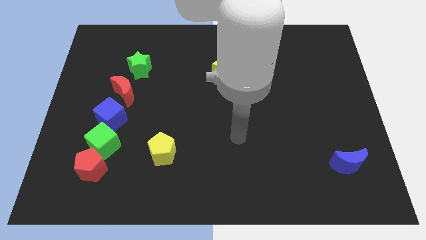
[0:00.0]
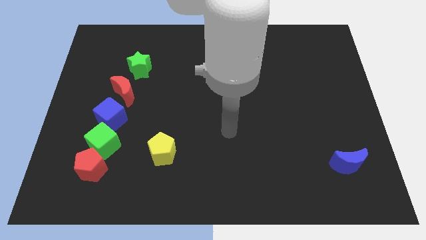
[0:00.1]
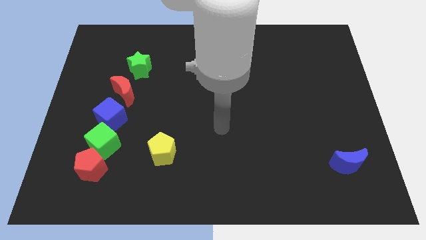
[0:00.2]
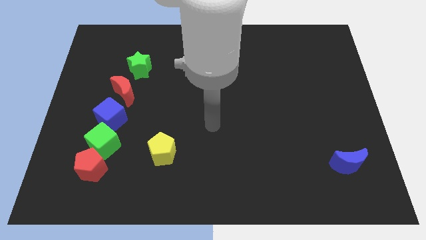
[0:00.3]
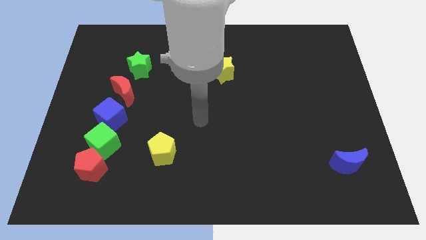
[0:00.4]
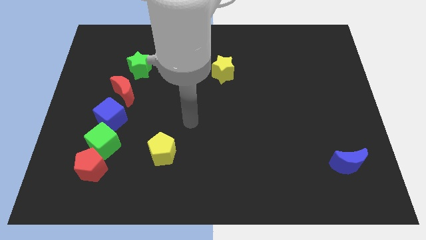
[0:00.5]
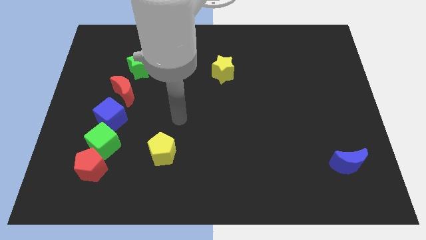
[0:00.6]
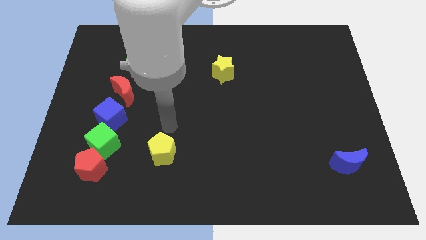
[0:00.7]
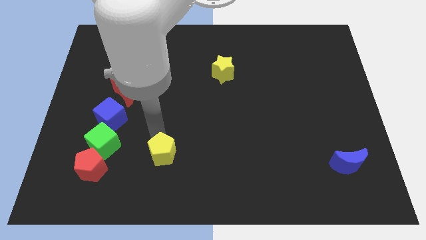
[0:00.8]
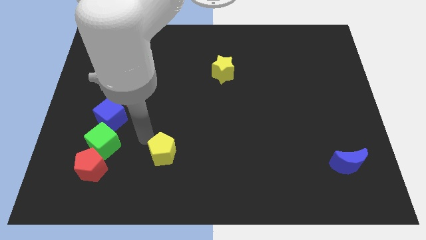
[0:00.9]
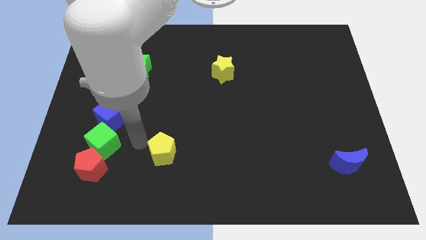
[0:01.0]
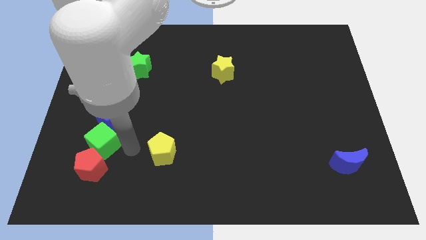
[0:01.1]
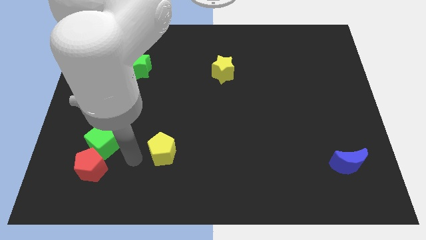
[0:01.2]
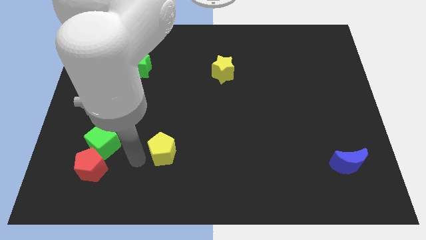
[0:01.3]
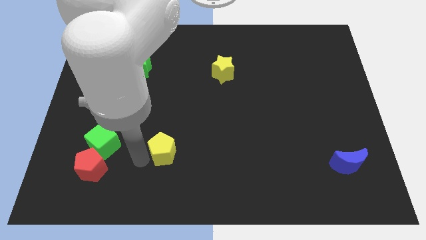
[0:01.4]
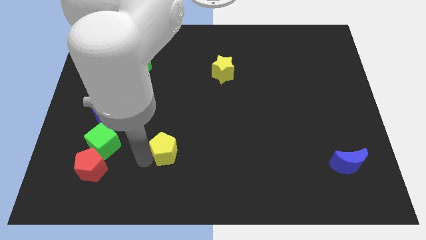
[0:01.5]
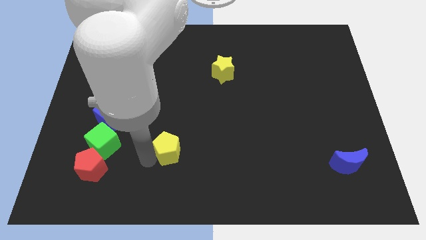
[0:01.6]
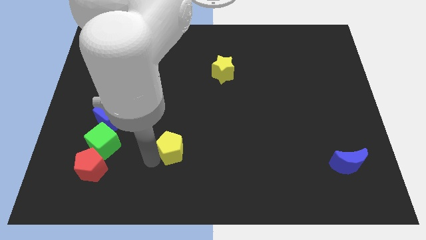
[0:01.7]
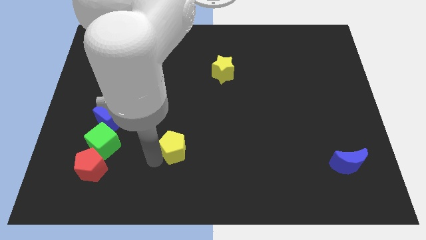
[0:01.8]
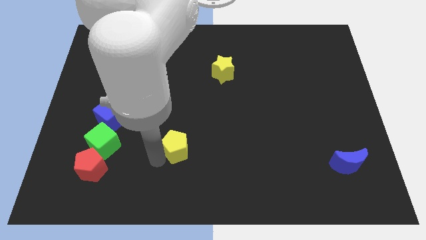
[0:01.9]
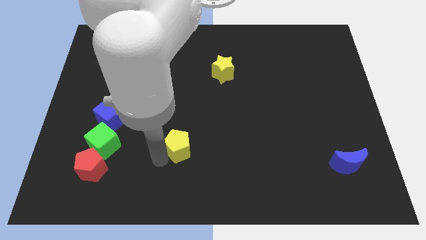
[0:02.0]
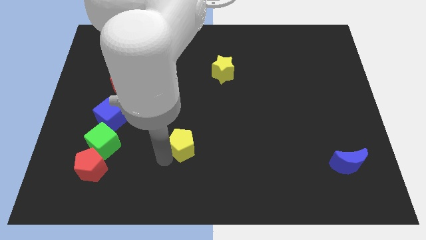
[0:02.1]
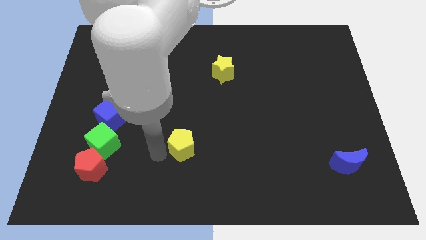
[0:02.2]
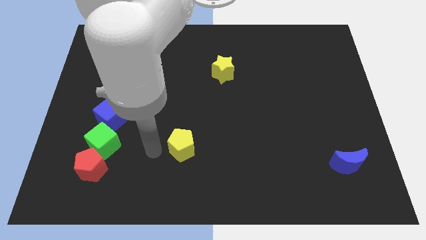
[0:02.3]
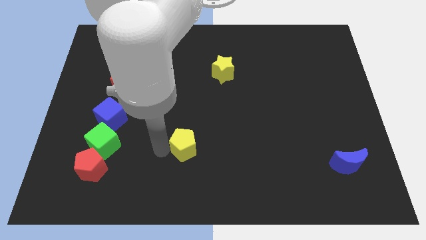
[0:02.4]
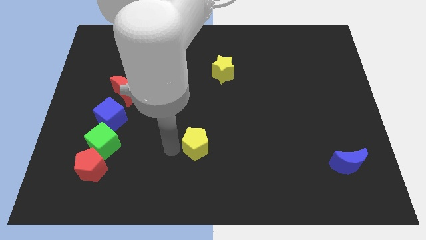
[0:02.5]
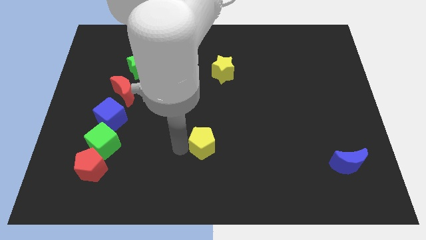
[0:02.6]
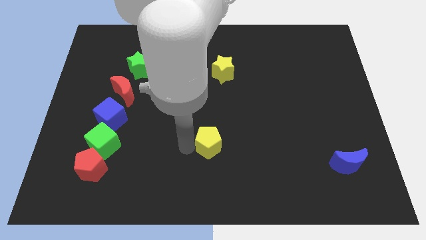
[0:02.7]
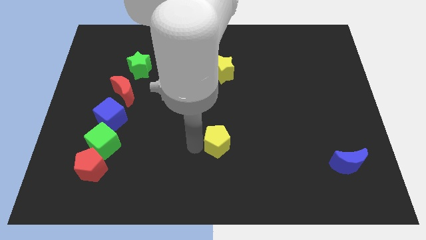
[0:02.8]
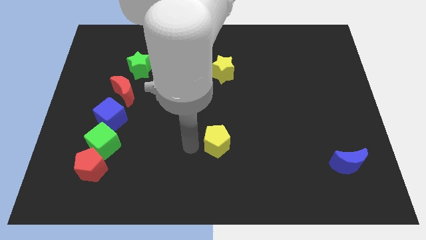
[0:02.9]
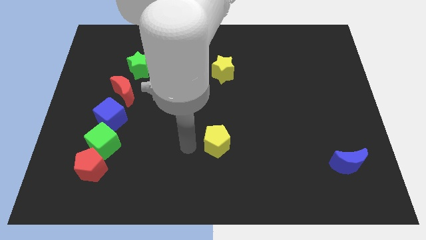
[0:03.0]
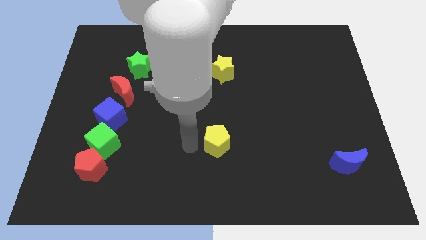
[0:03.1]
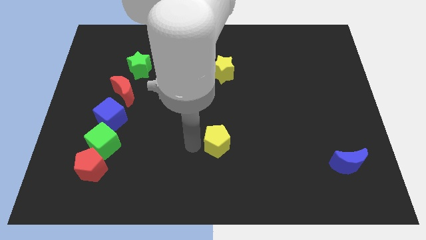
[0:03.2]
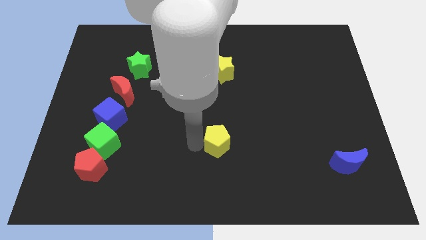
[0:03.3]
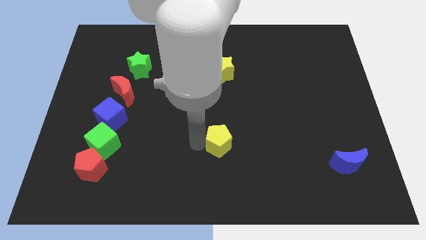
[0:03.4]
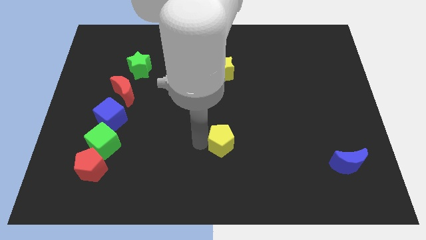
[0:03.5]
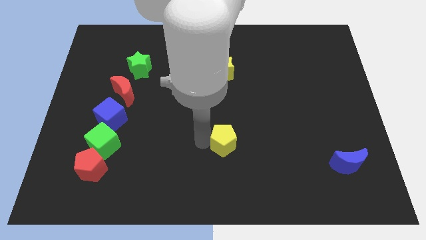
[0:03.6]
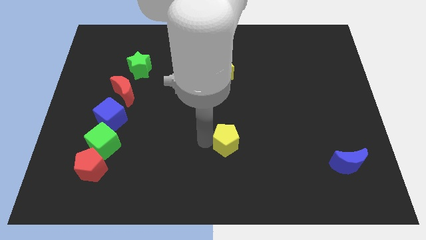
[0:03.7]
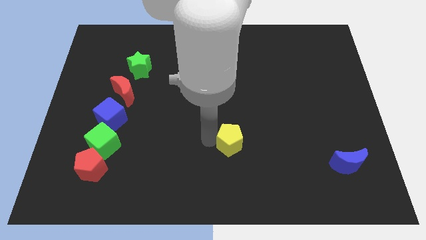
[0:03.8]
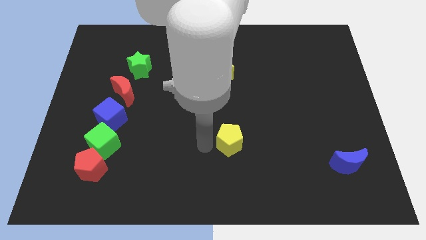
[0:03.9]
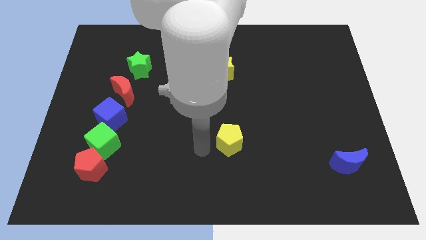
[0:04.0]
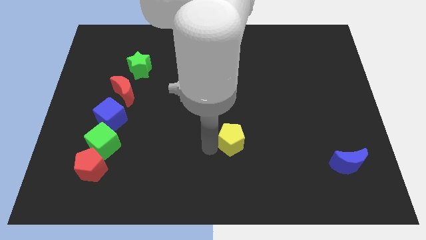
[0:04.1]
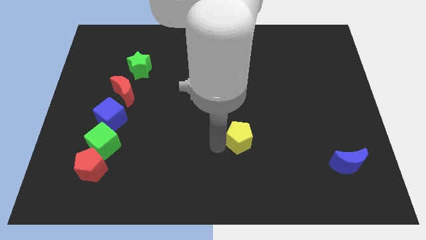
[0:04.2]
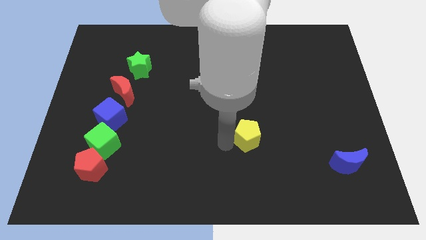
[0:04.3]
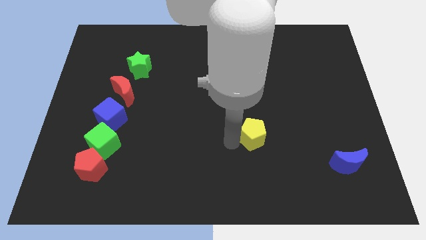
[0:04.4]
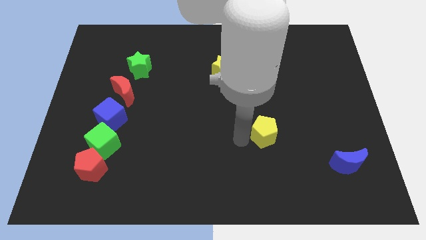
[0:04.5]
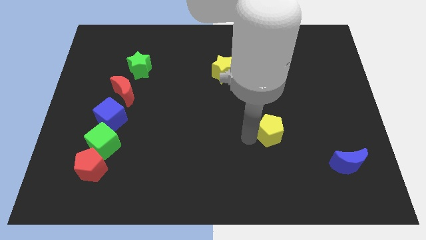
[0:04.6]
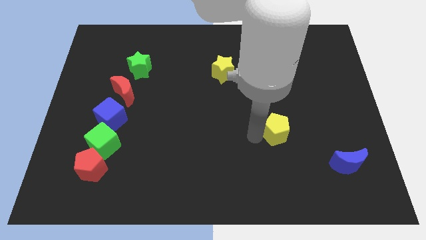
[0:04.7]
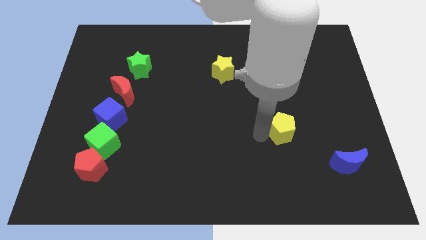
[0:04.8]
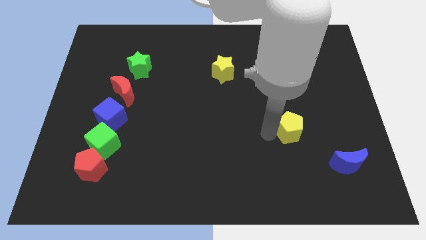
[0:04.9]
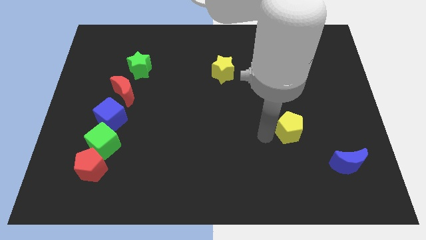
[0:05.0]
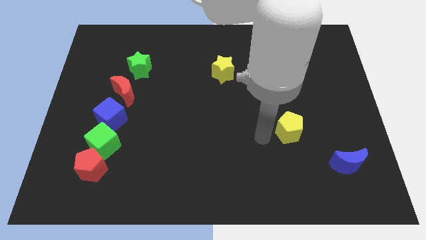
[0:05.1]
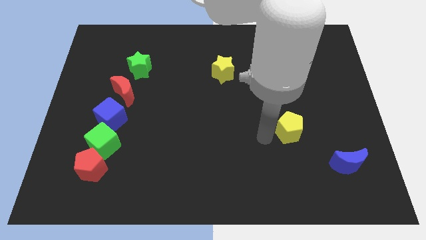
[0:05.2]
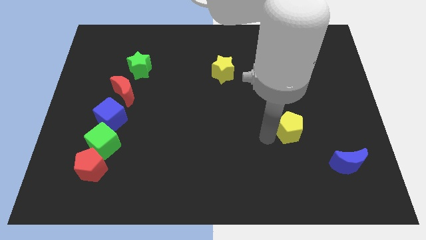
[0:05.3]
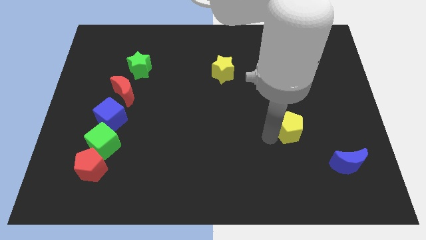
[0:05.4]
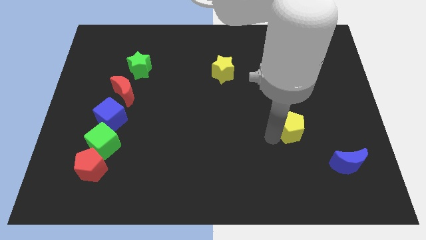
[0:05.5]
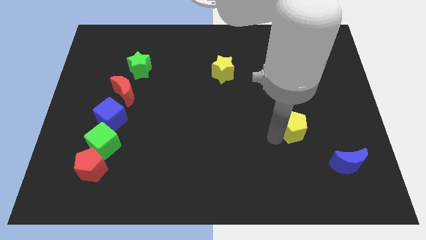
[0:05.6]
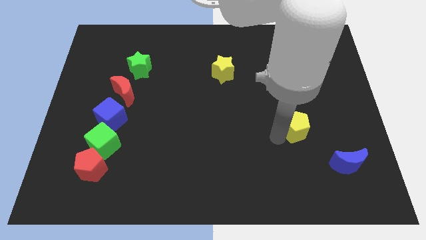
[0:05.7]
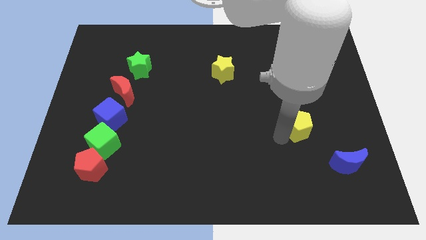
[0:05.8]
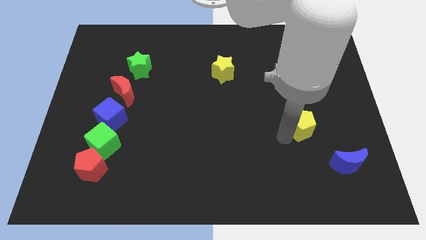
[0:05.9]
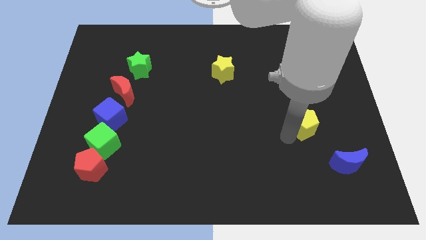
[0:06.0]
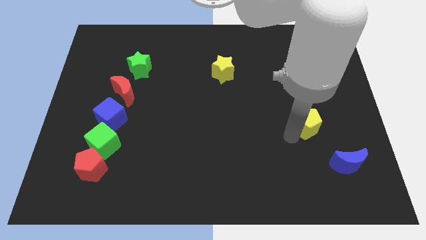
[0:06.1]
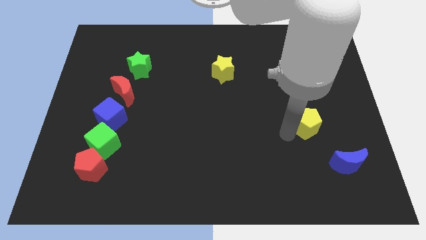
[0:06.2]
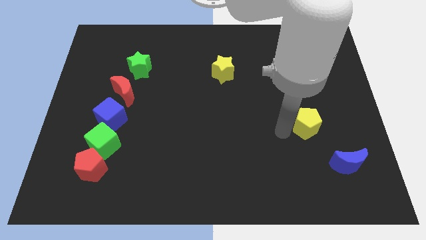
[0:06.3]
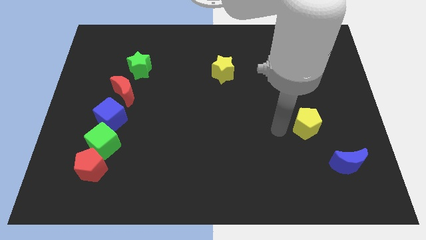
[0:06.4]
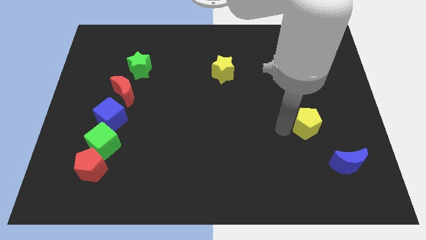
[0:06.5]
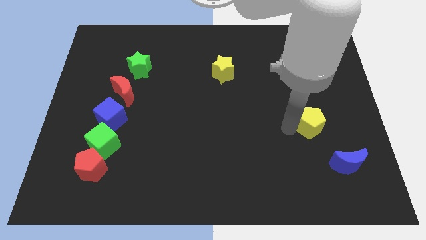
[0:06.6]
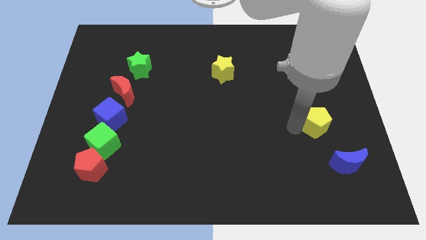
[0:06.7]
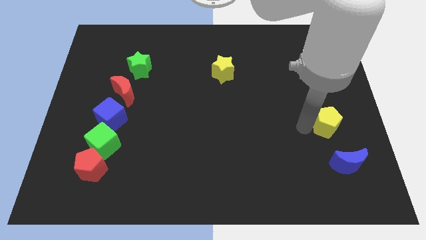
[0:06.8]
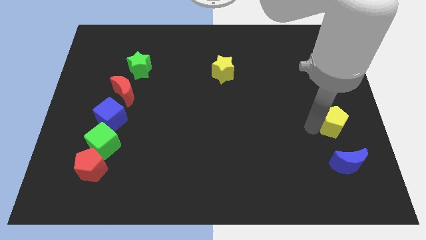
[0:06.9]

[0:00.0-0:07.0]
put the yellow pentagon to the center right

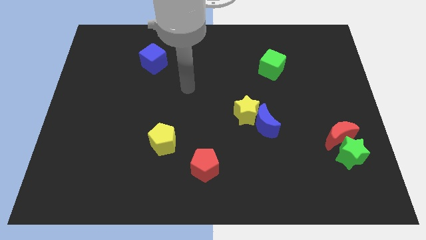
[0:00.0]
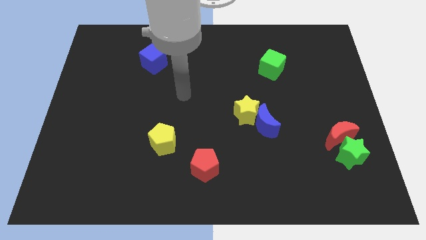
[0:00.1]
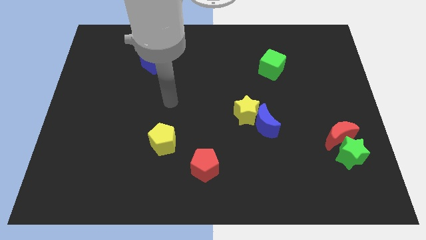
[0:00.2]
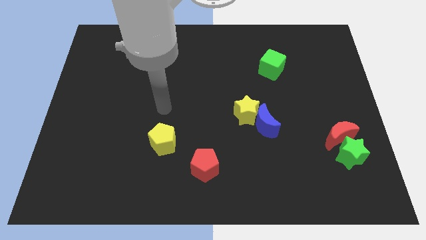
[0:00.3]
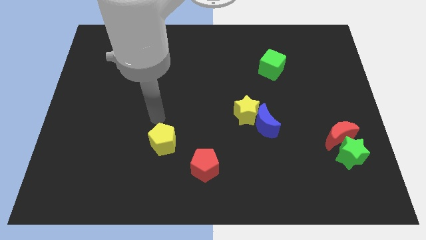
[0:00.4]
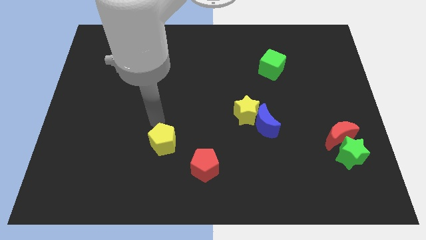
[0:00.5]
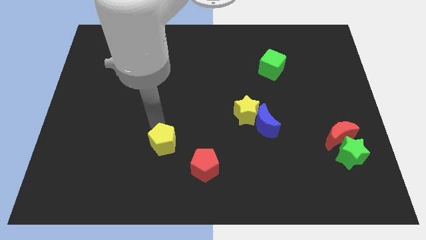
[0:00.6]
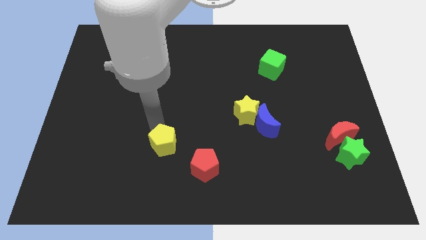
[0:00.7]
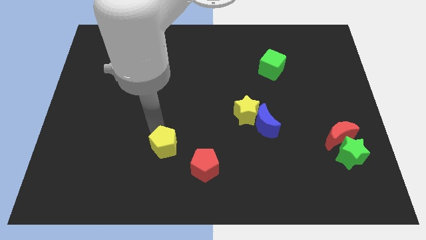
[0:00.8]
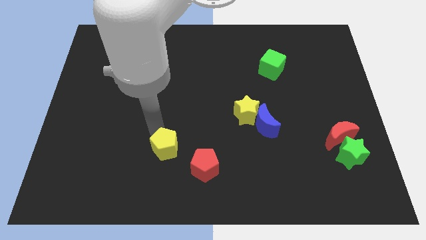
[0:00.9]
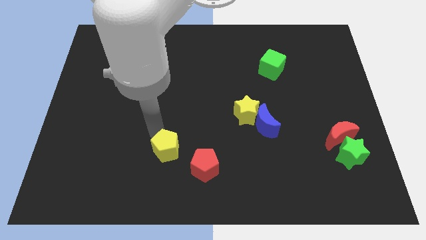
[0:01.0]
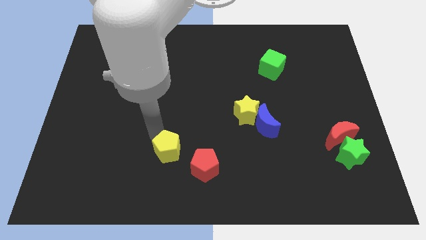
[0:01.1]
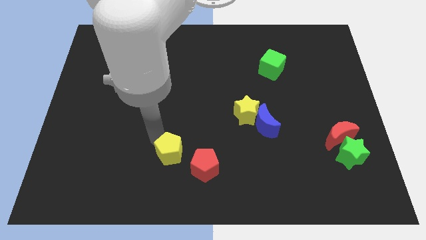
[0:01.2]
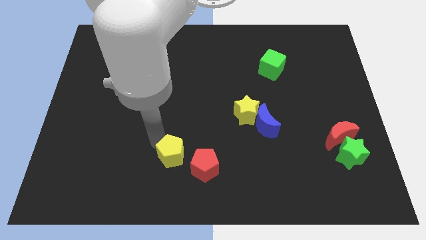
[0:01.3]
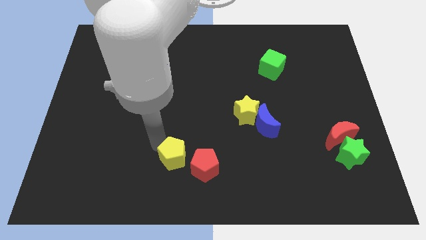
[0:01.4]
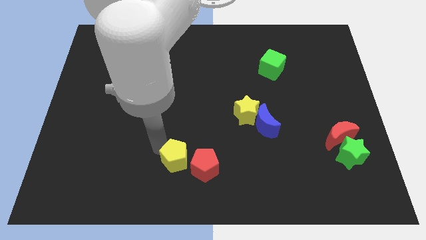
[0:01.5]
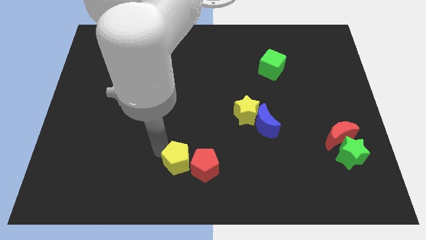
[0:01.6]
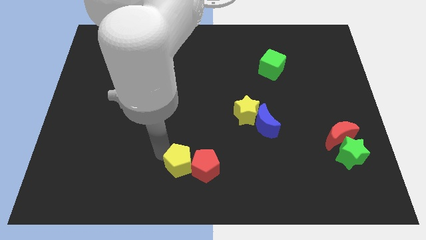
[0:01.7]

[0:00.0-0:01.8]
move the yellow pentagon to the bottom side
